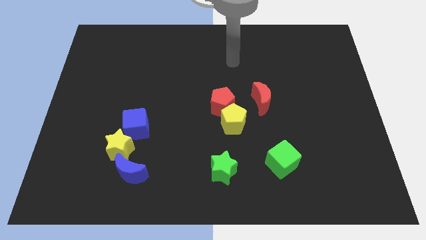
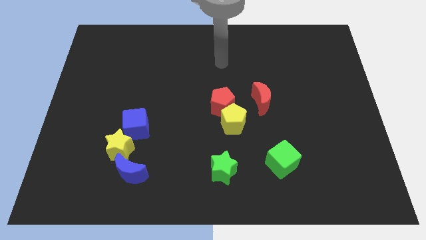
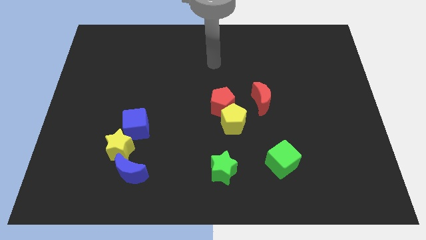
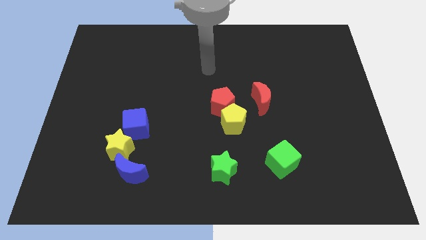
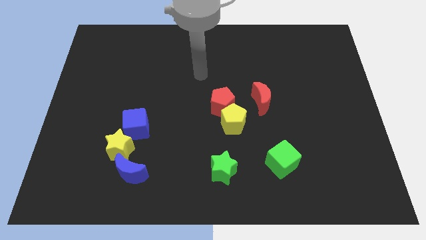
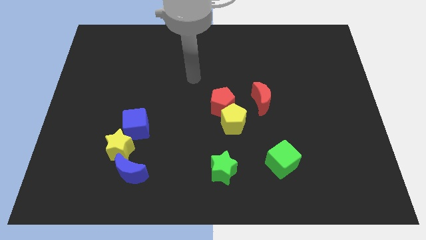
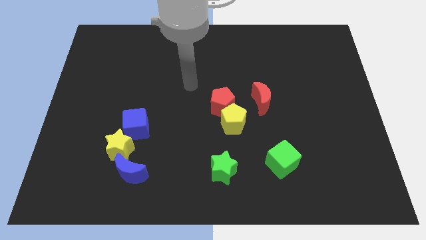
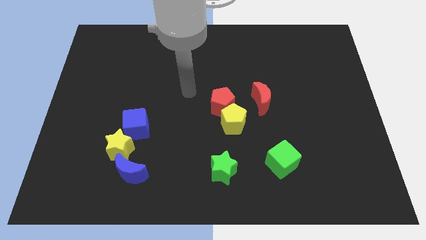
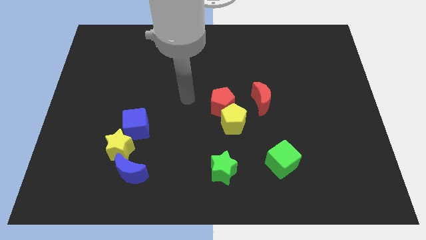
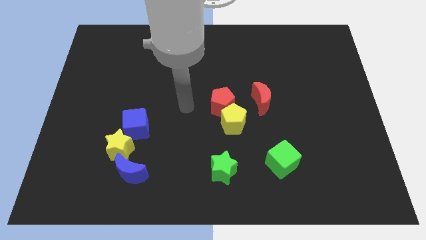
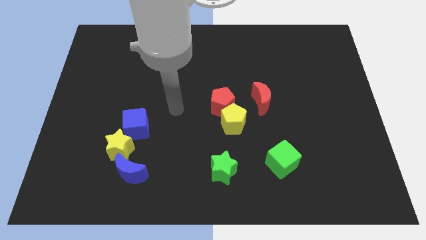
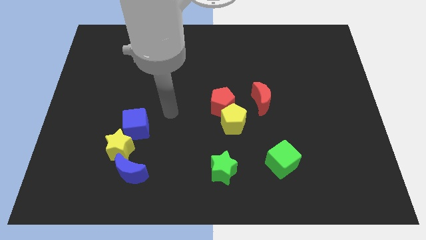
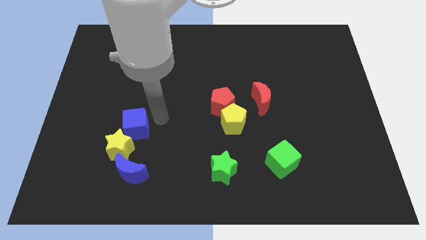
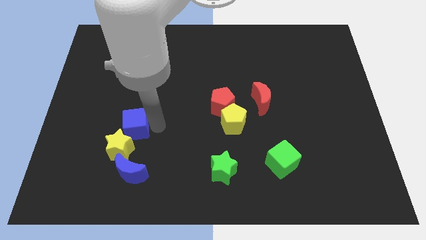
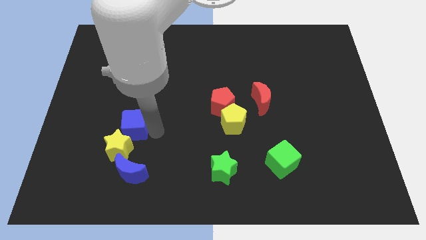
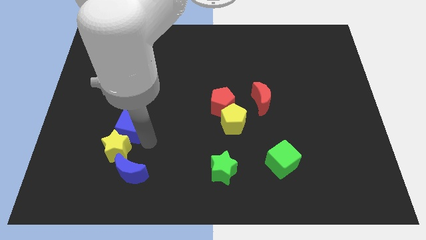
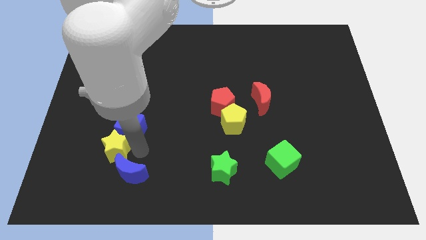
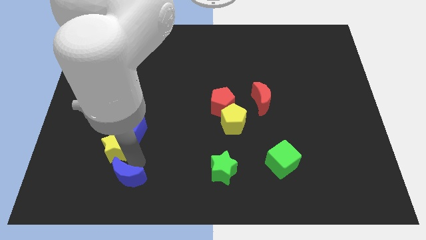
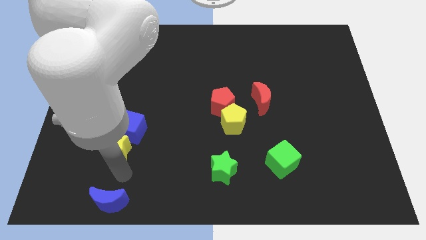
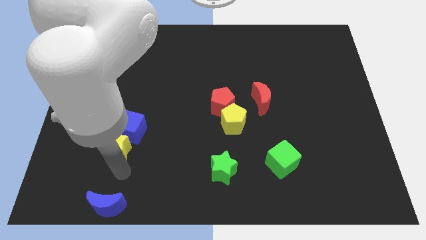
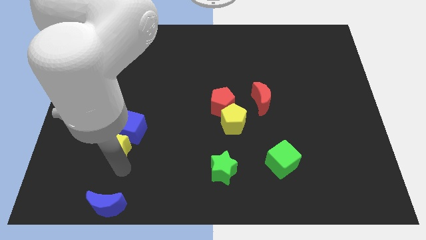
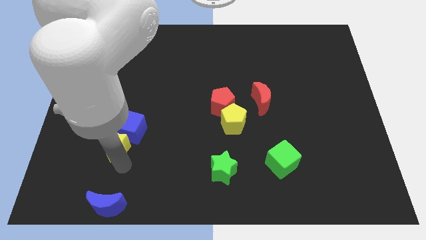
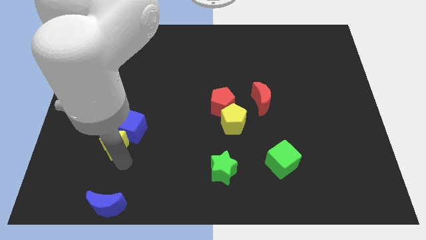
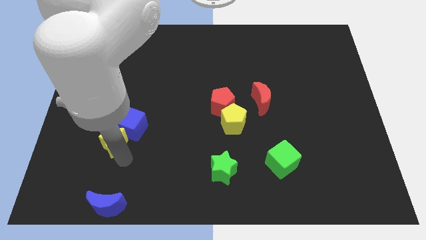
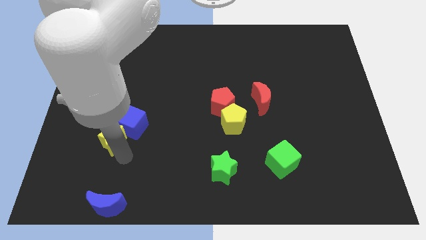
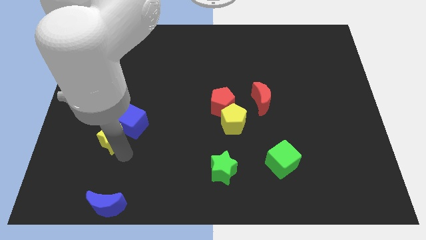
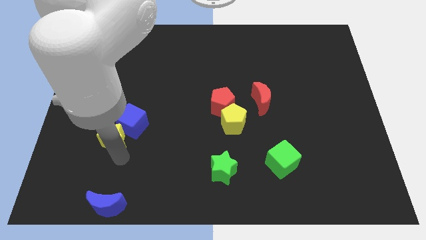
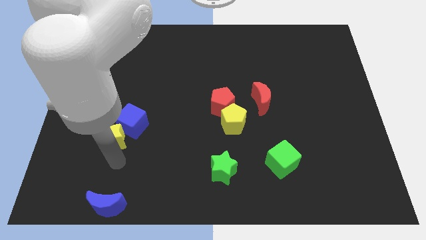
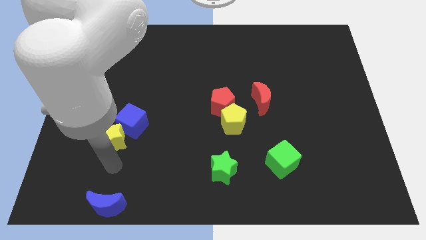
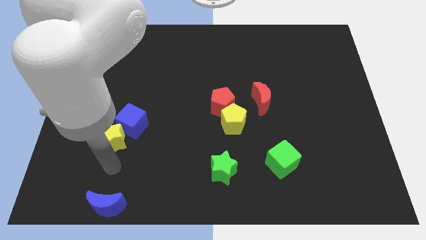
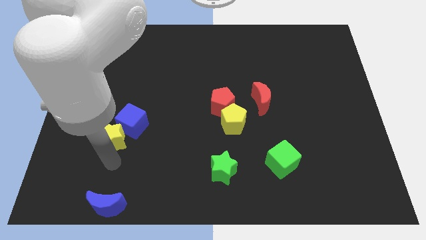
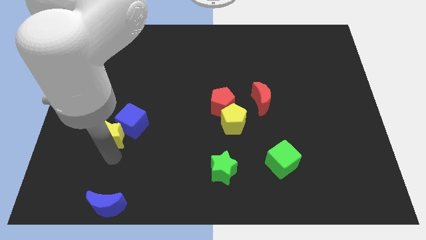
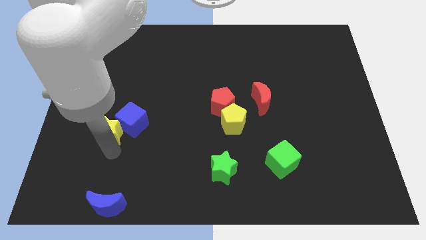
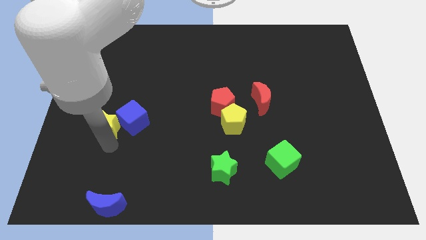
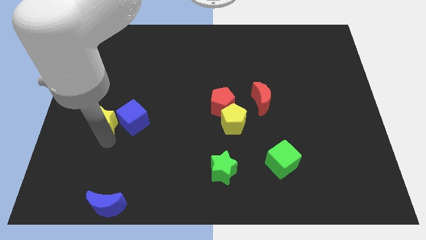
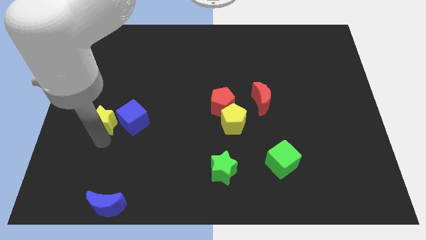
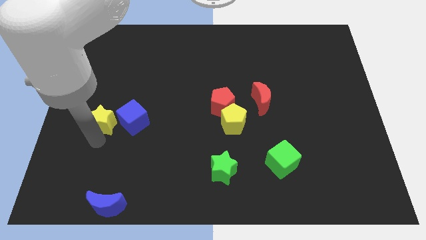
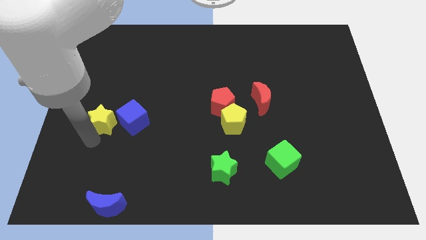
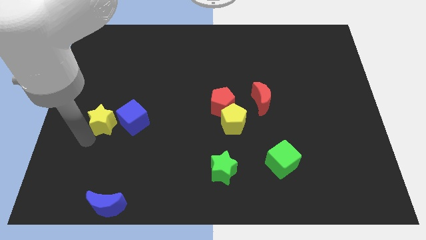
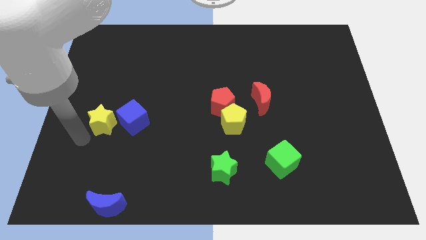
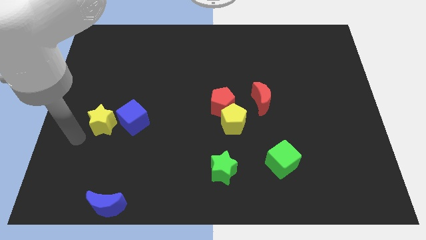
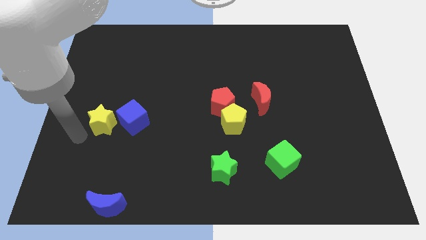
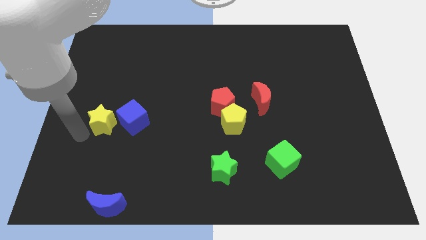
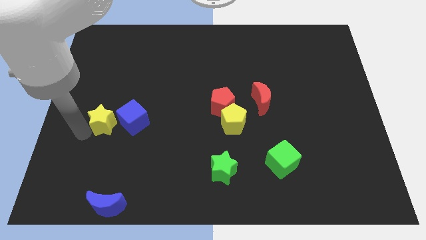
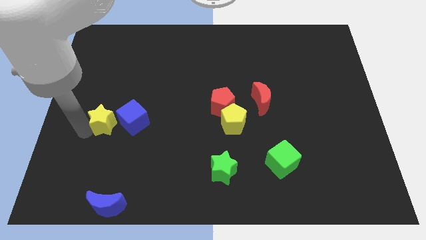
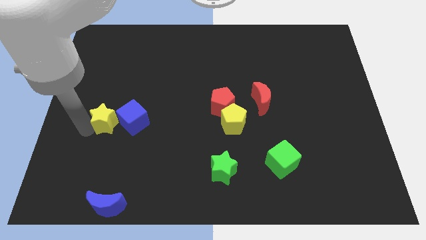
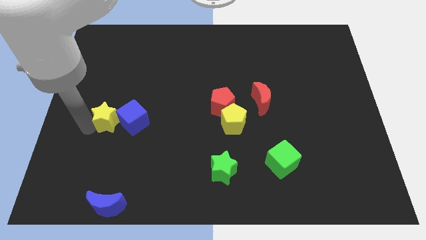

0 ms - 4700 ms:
slide the yellow star a little upwards

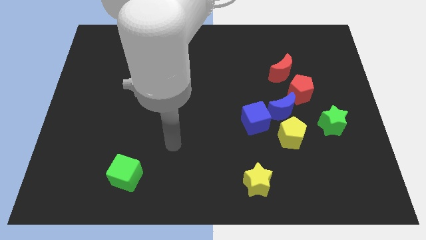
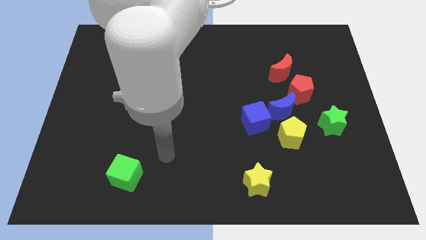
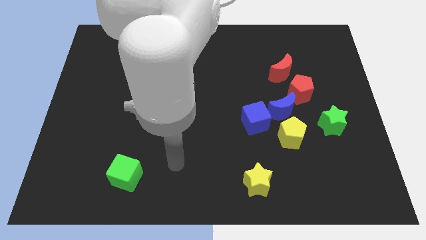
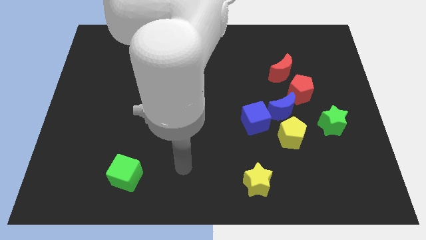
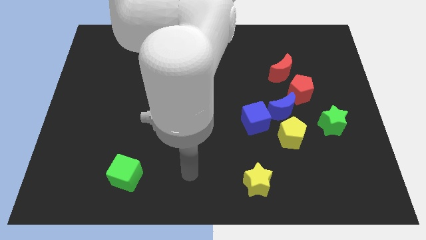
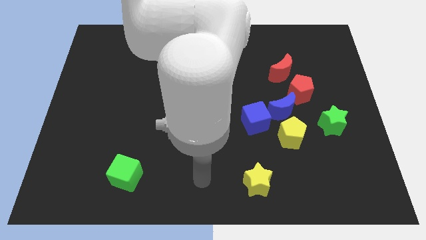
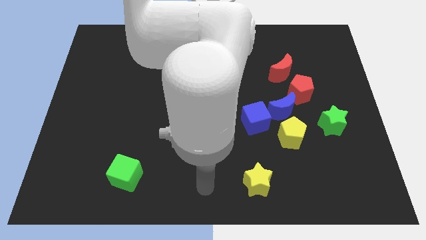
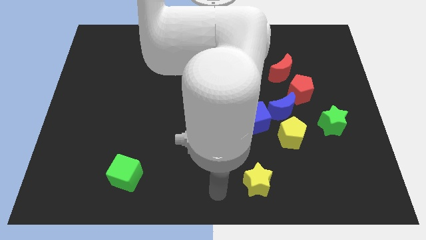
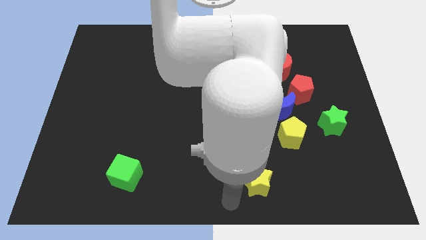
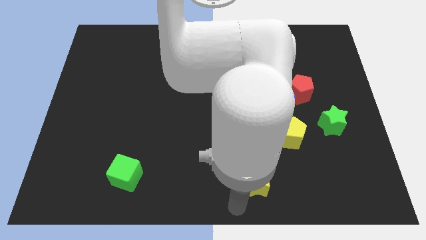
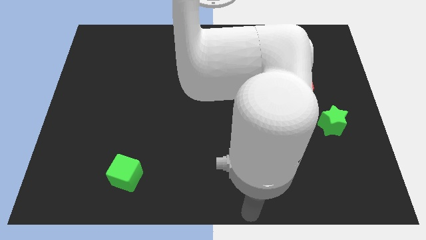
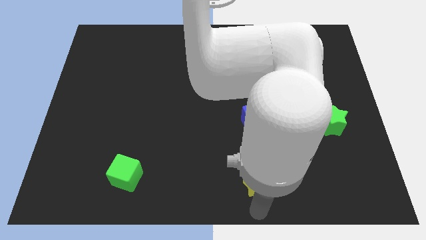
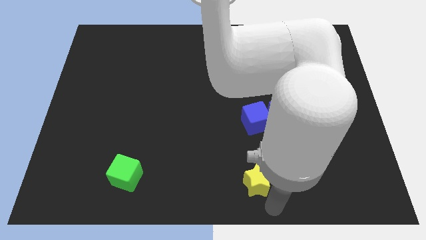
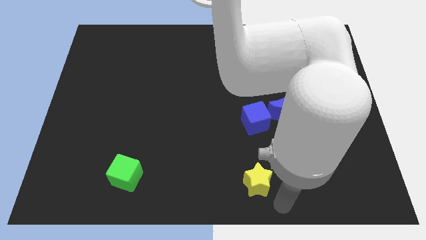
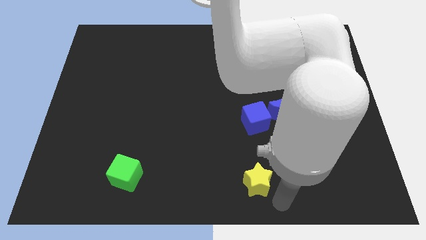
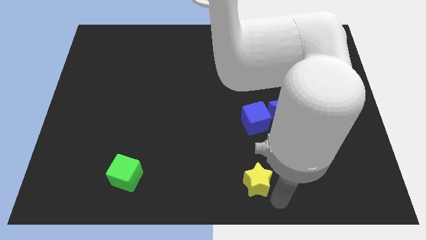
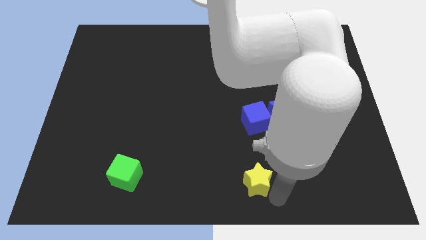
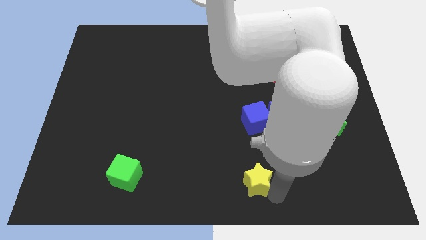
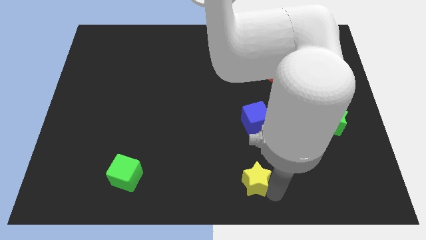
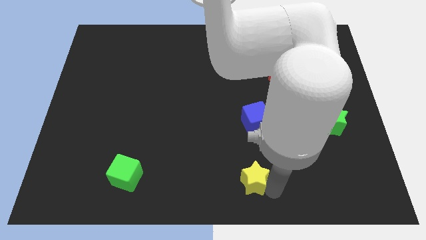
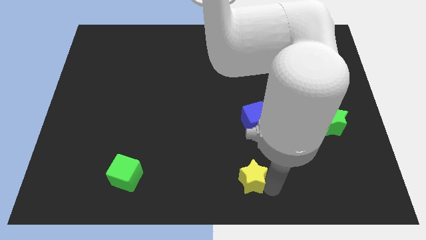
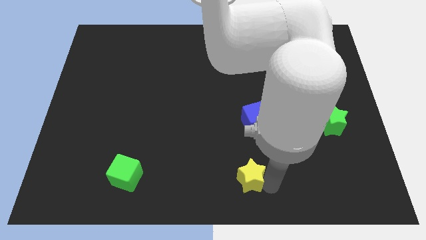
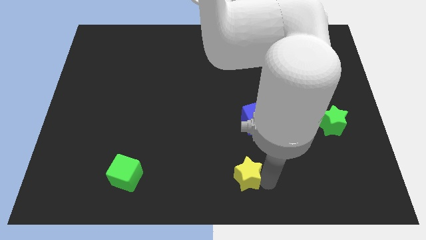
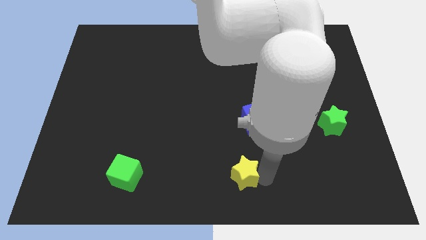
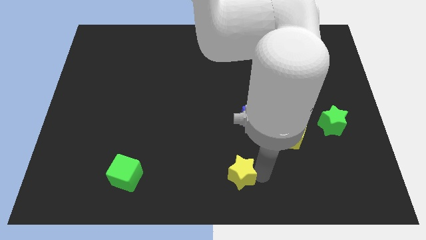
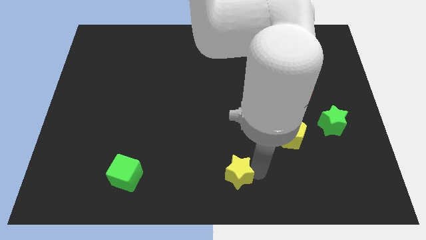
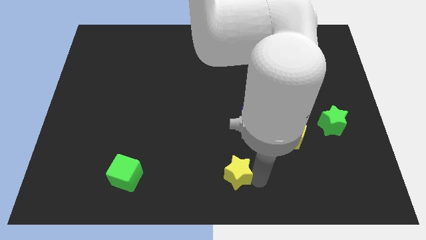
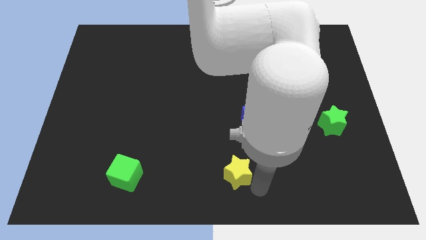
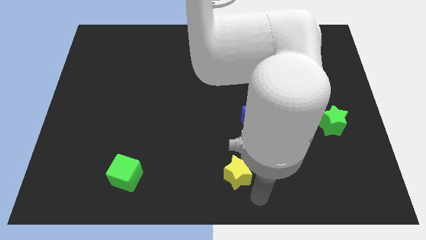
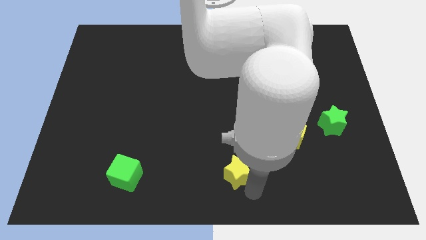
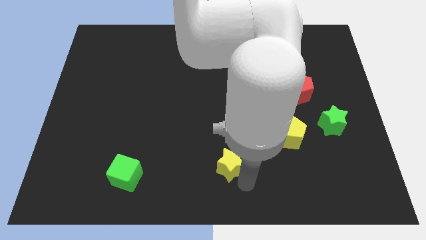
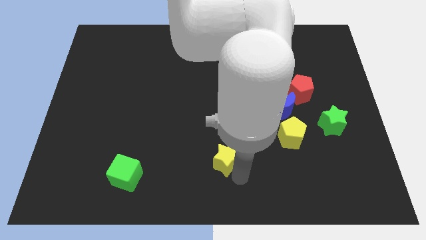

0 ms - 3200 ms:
slide the yellow star somewhat upwards and left
